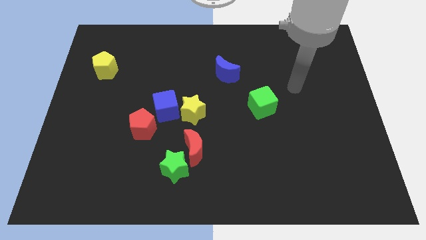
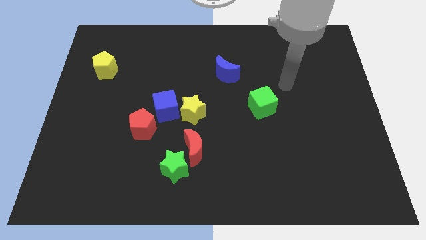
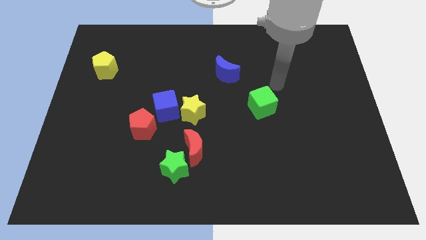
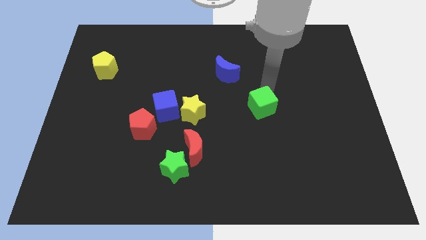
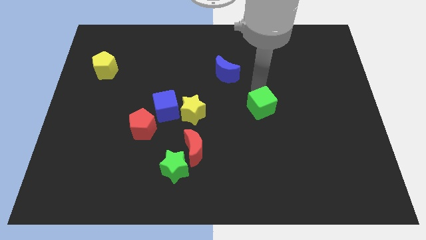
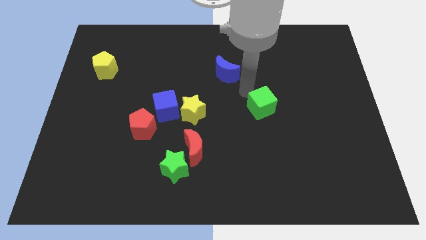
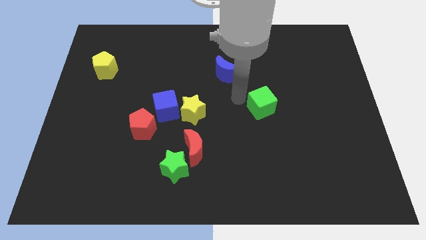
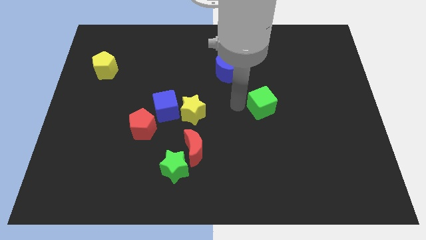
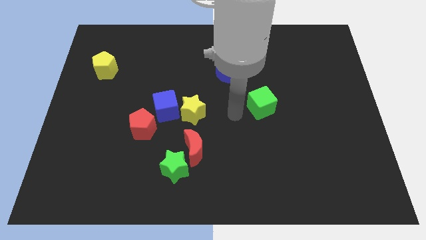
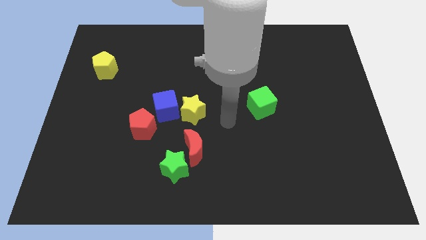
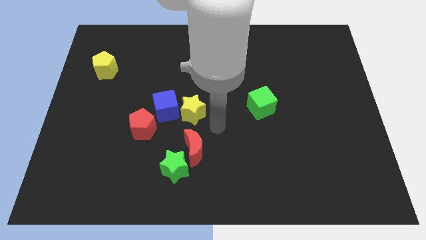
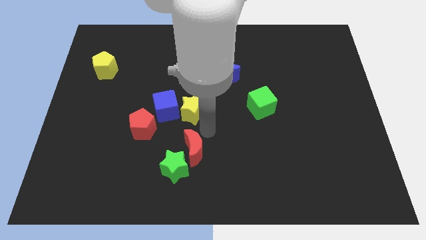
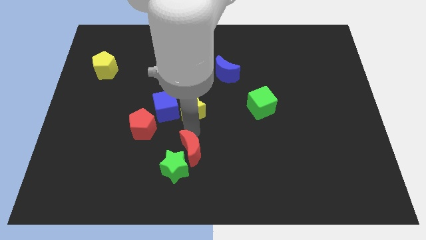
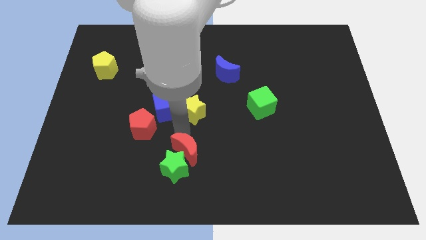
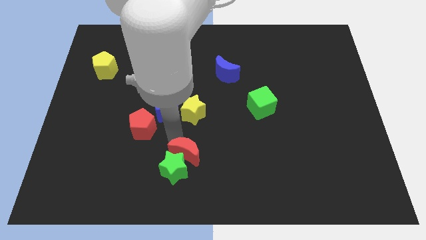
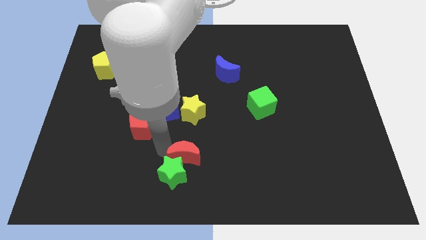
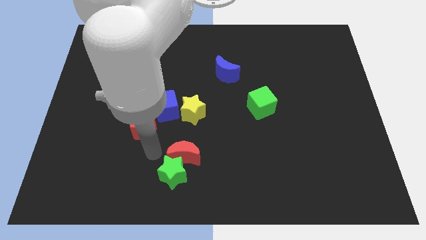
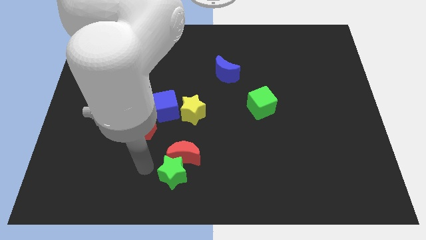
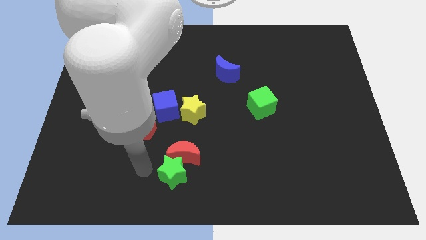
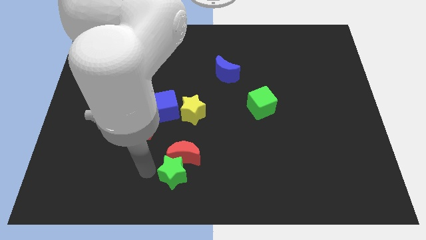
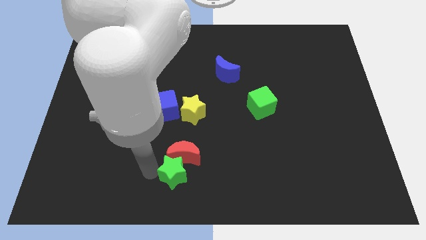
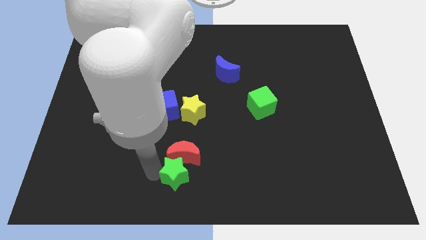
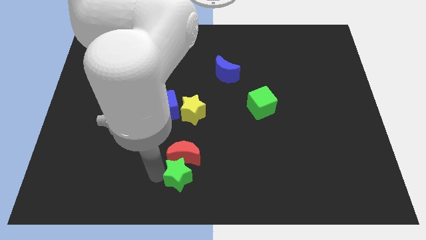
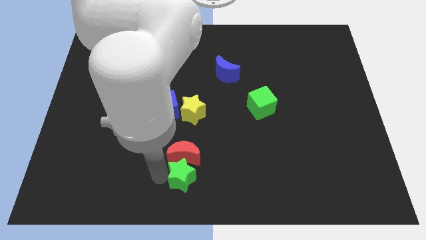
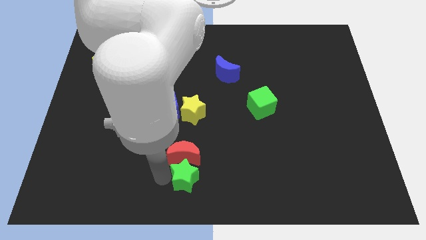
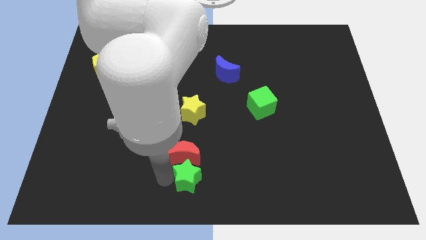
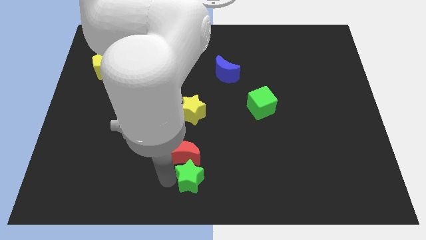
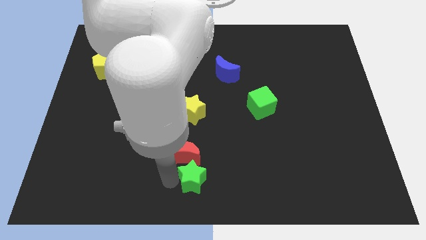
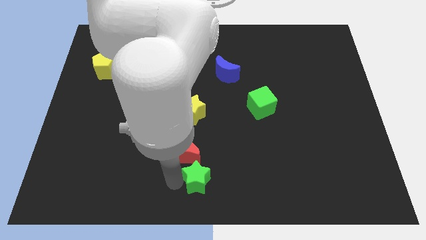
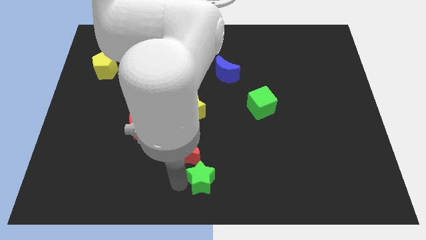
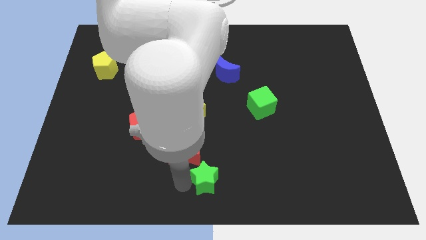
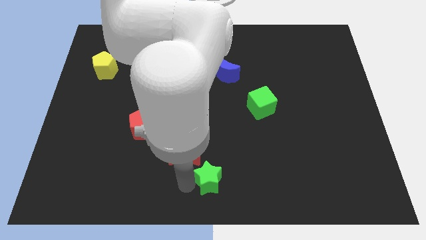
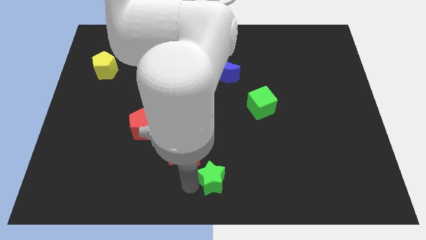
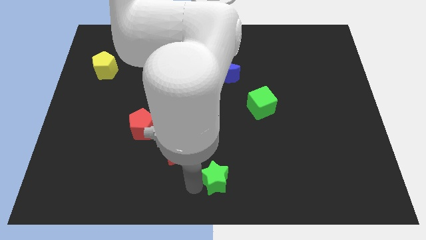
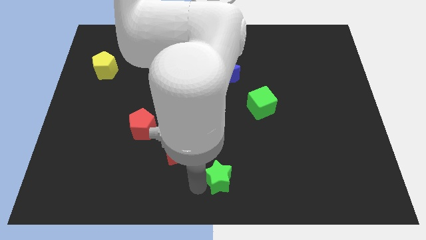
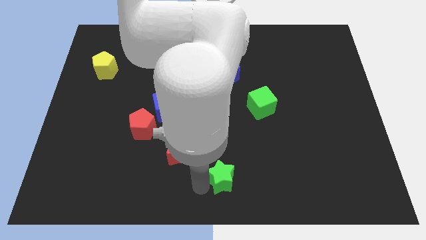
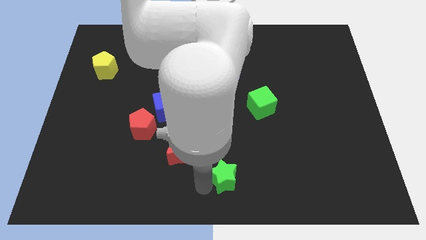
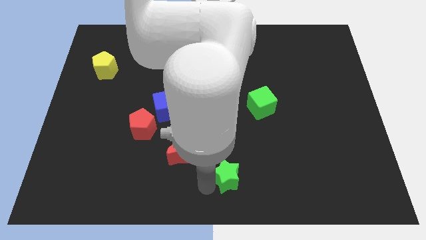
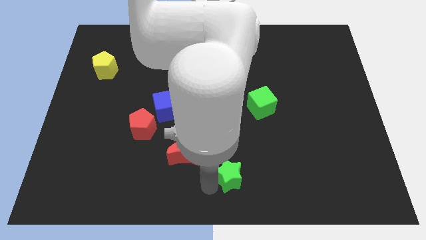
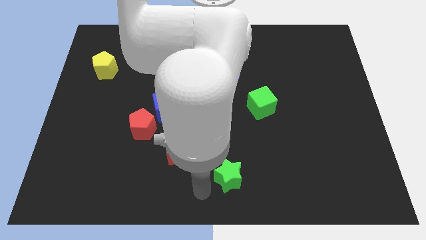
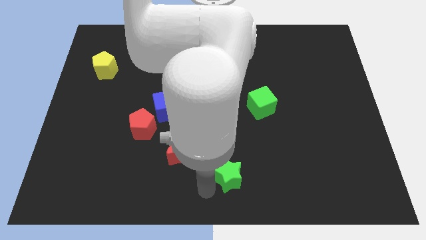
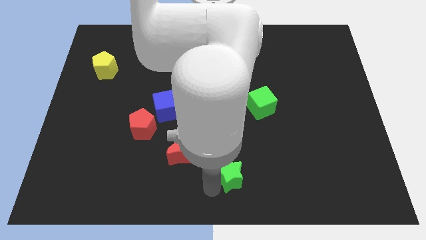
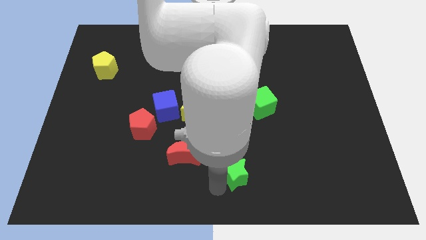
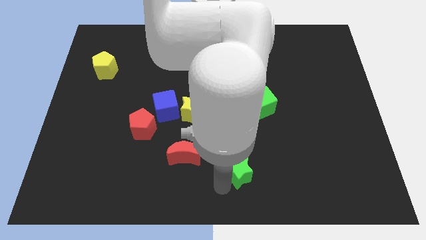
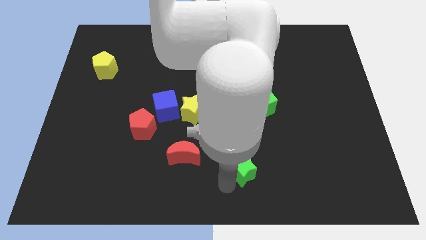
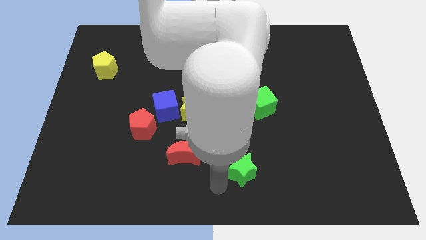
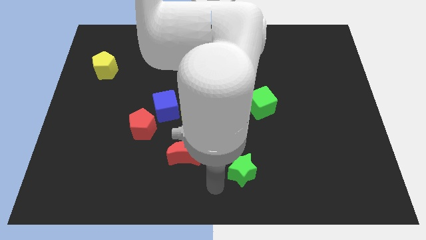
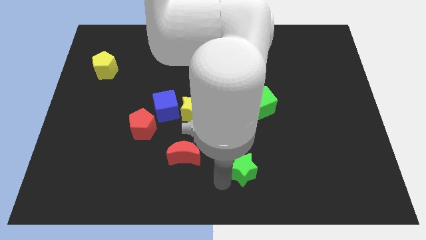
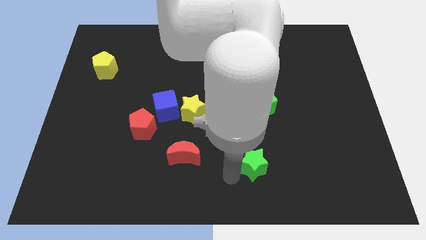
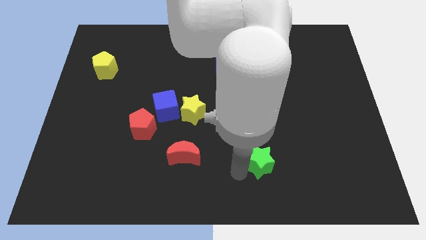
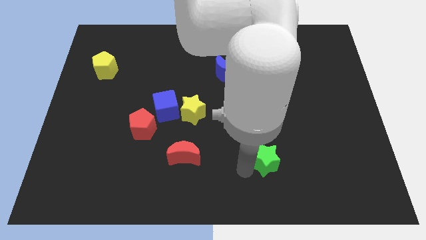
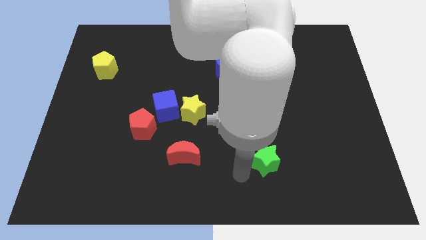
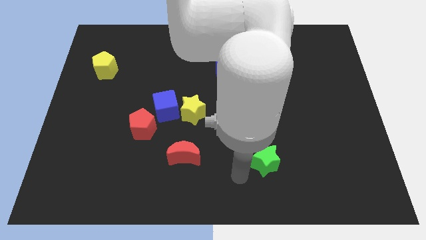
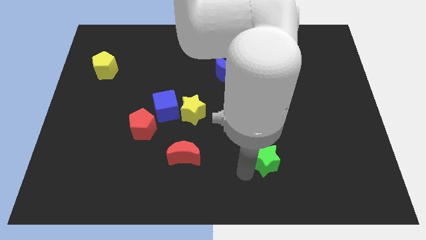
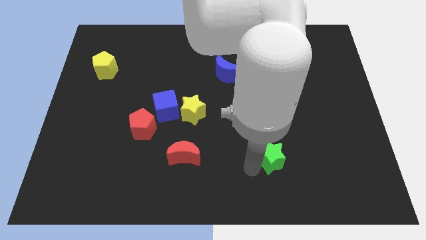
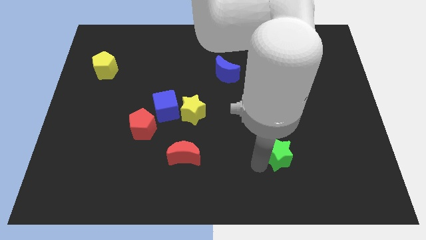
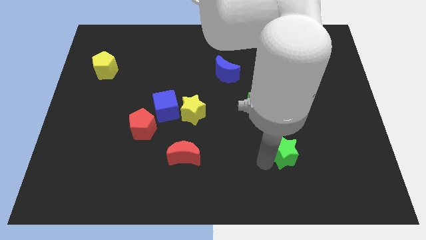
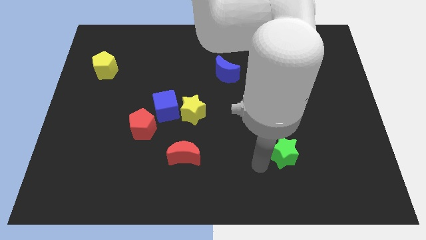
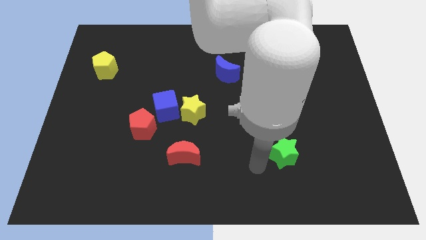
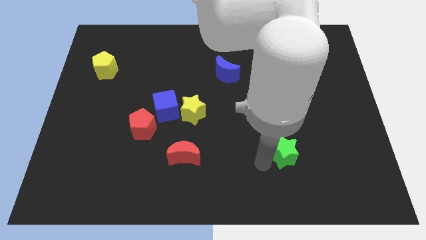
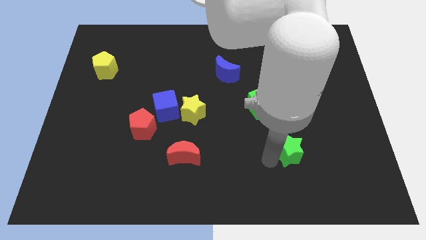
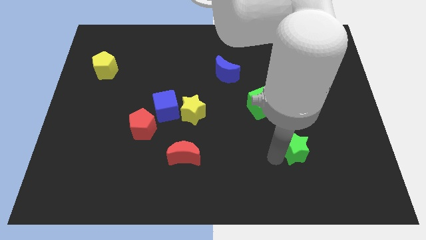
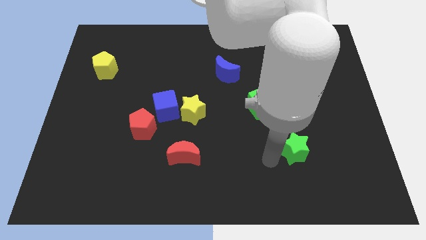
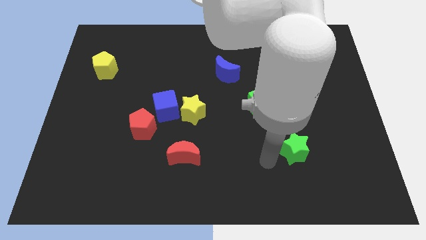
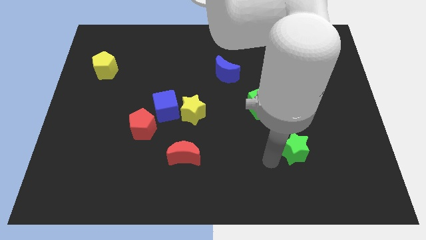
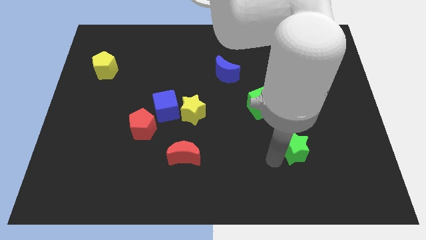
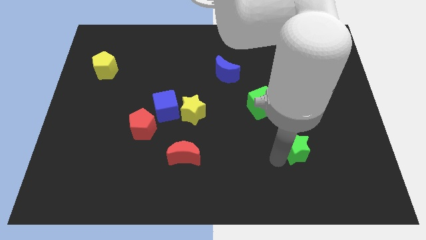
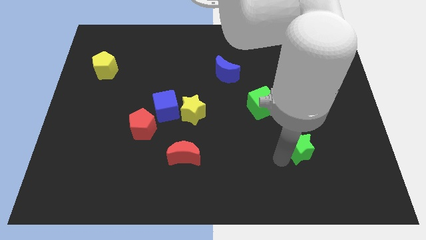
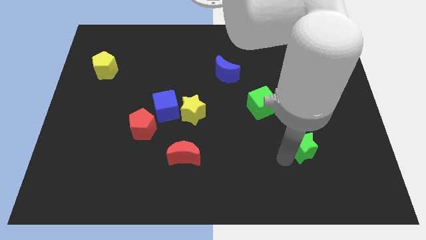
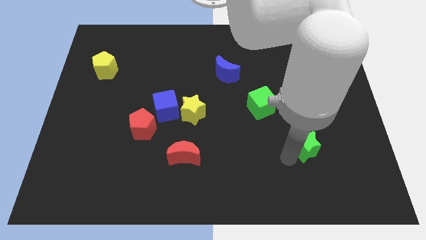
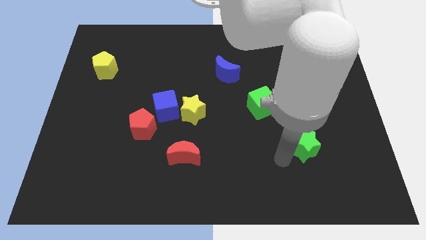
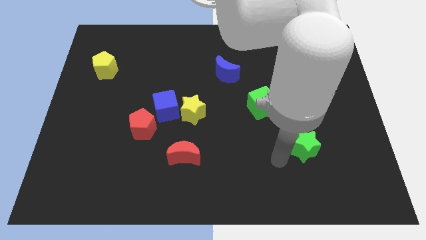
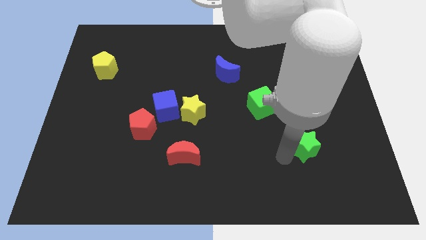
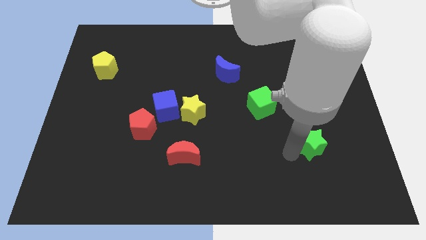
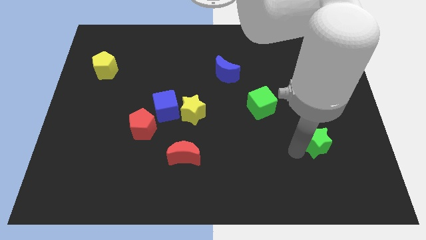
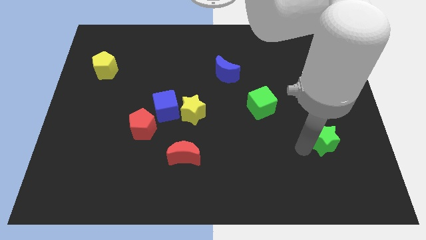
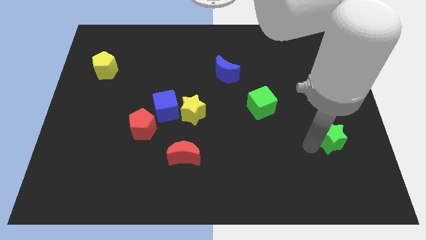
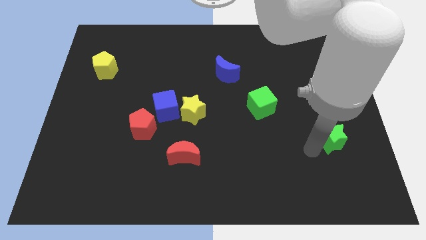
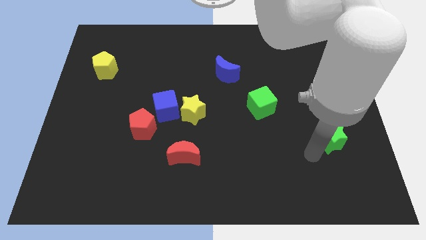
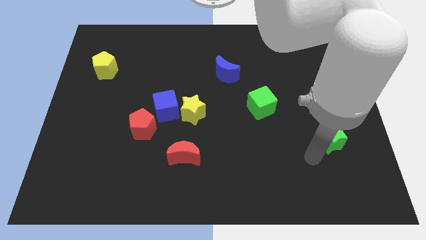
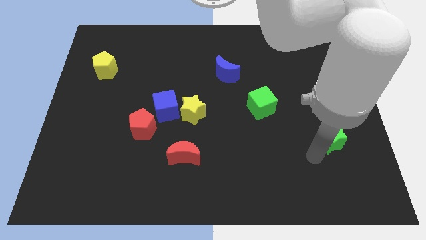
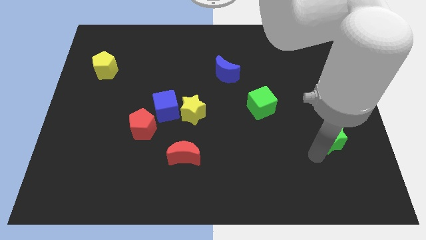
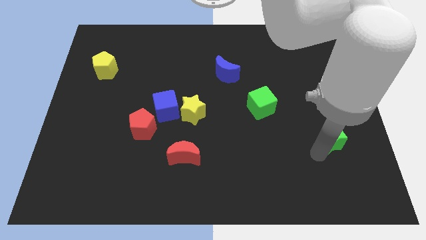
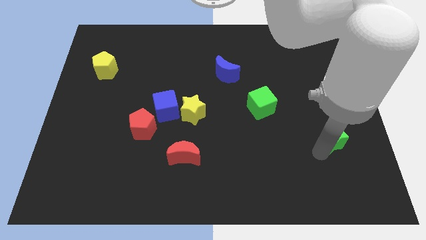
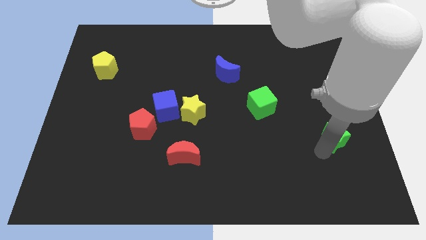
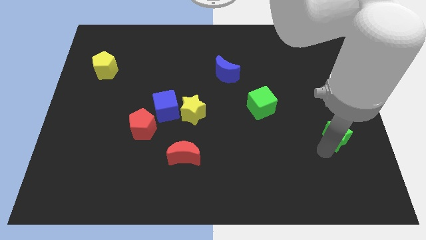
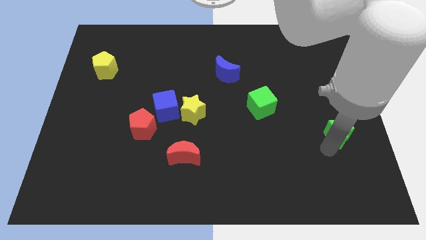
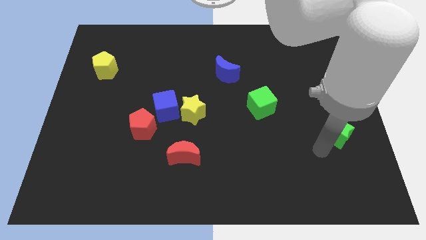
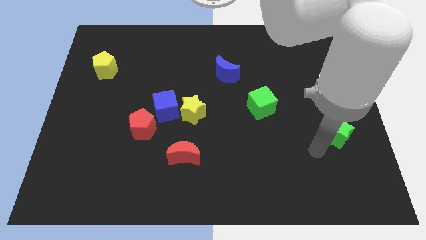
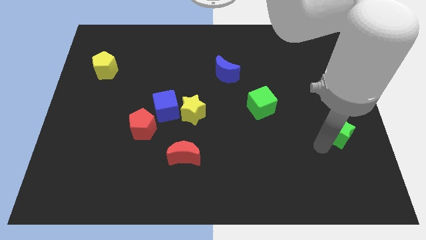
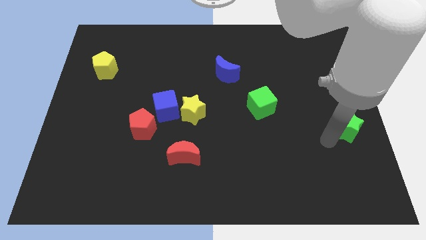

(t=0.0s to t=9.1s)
put the green star to the right side of the board
